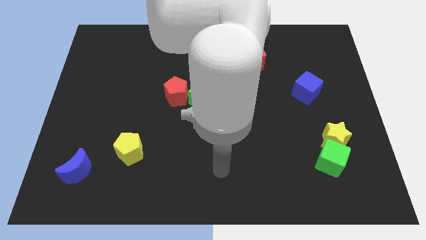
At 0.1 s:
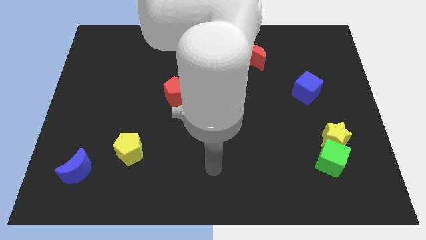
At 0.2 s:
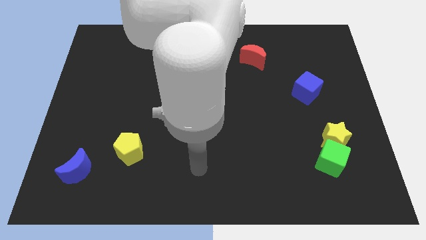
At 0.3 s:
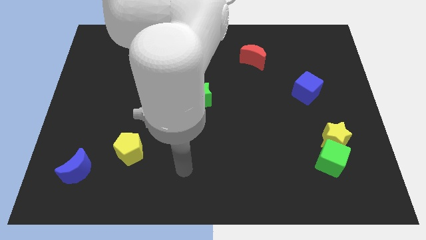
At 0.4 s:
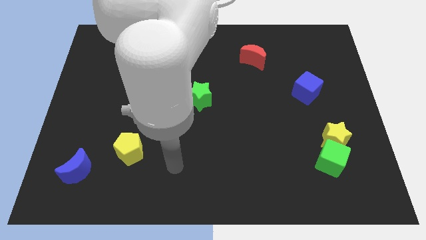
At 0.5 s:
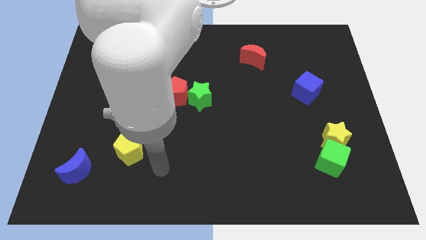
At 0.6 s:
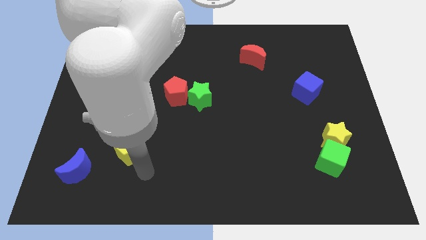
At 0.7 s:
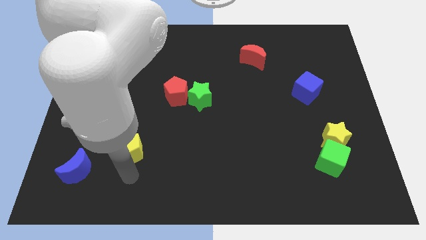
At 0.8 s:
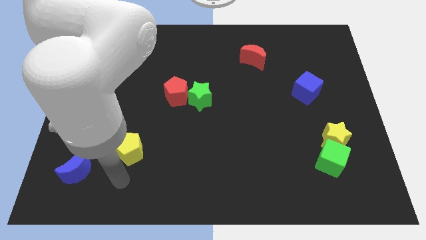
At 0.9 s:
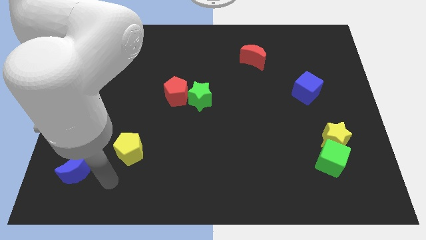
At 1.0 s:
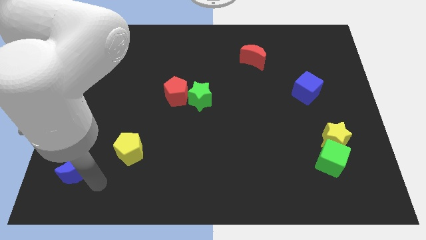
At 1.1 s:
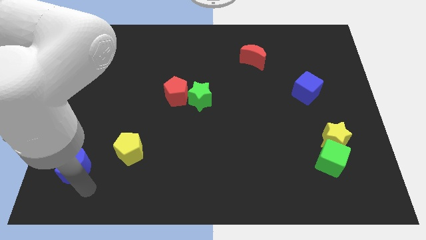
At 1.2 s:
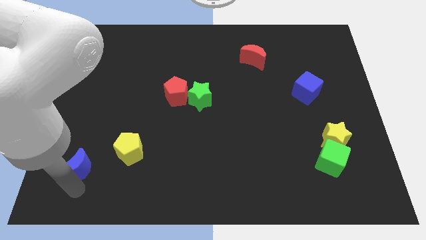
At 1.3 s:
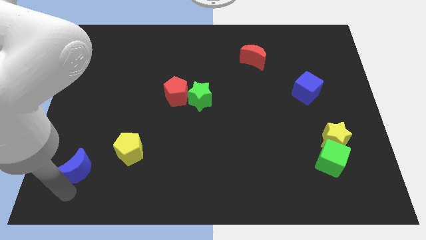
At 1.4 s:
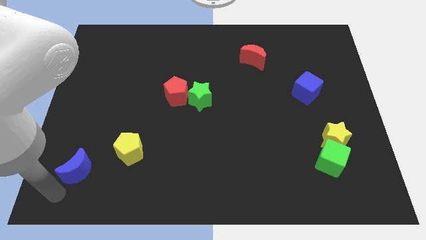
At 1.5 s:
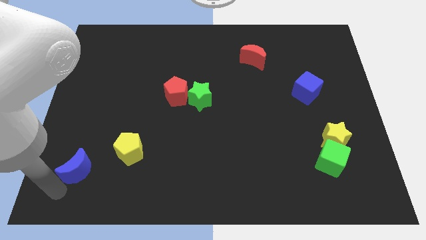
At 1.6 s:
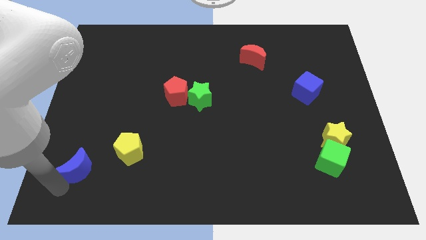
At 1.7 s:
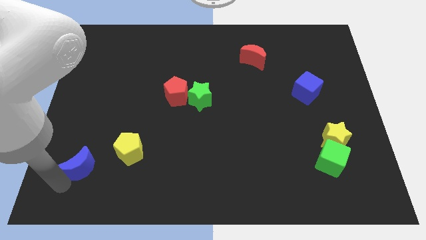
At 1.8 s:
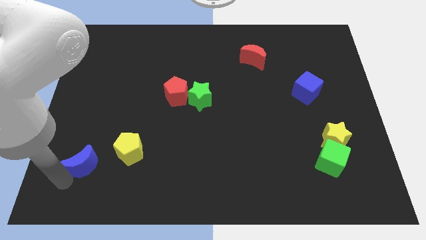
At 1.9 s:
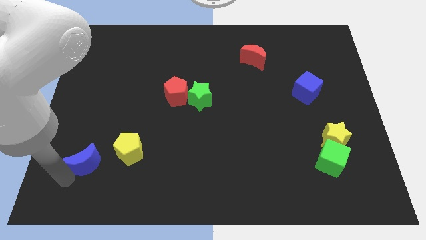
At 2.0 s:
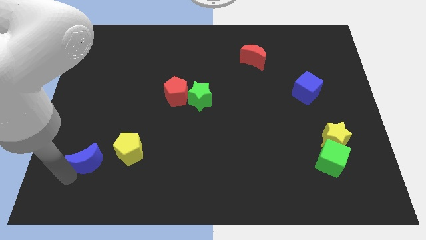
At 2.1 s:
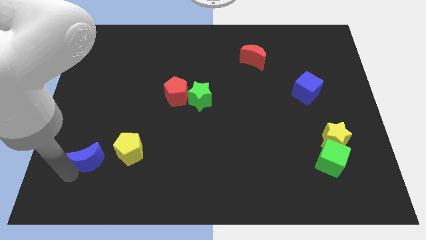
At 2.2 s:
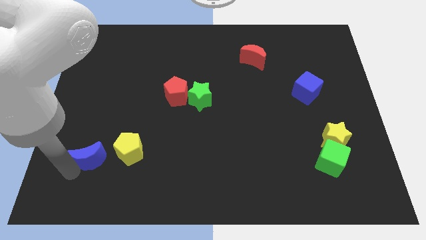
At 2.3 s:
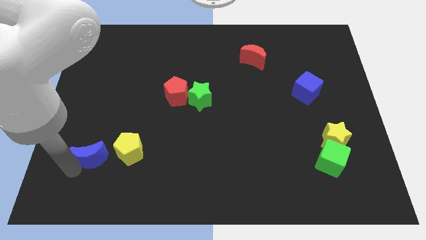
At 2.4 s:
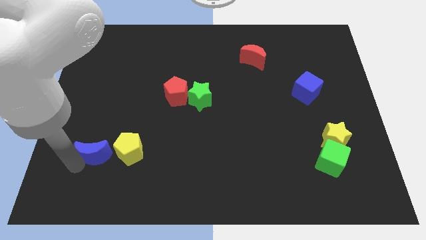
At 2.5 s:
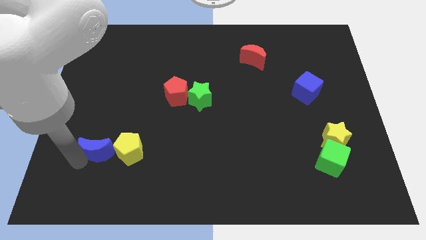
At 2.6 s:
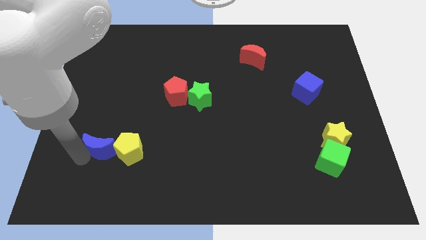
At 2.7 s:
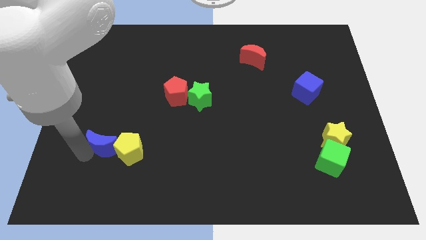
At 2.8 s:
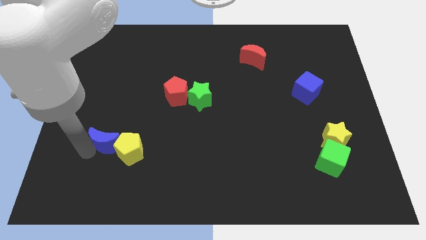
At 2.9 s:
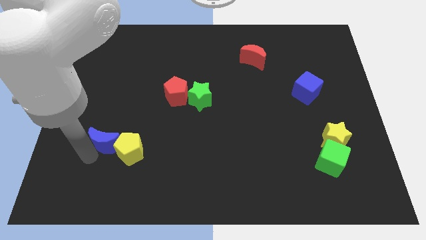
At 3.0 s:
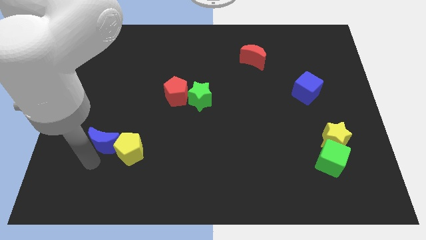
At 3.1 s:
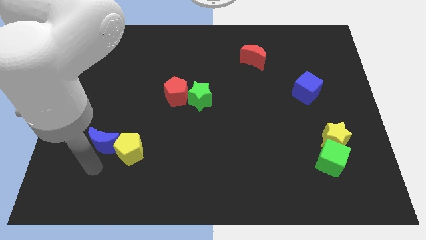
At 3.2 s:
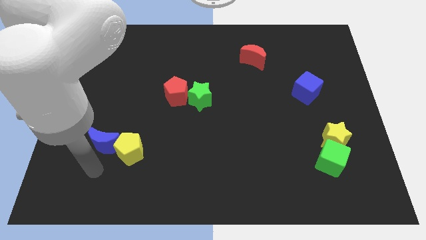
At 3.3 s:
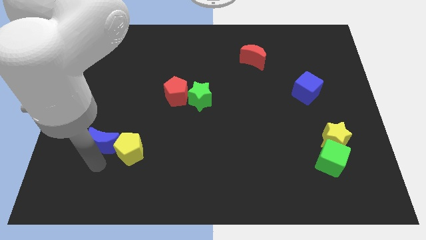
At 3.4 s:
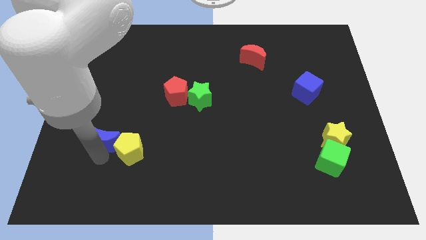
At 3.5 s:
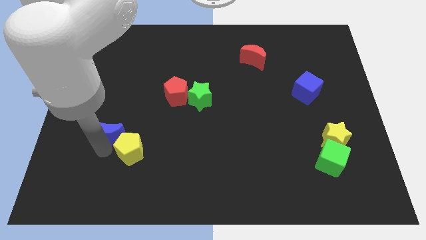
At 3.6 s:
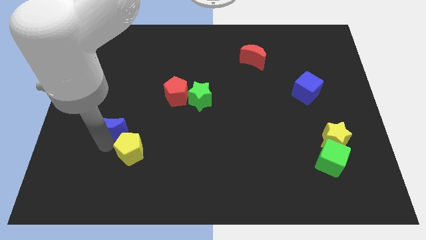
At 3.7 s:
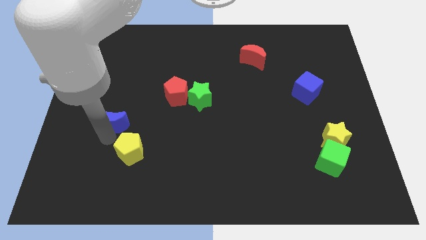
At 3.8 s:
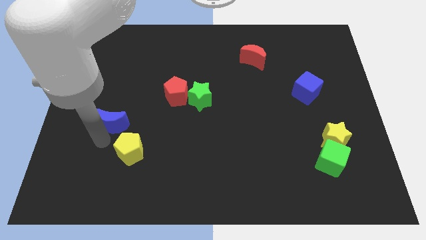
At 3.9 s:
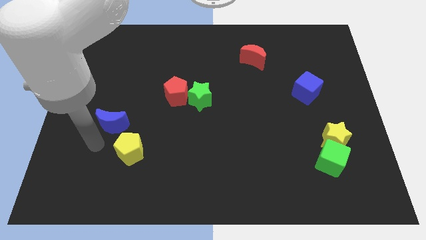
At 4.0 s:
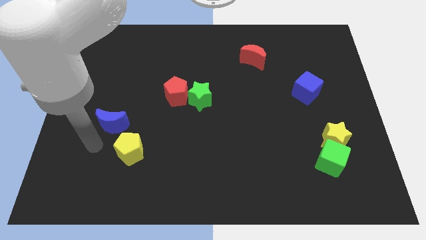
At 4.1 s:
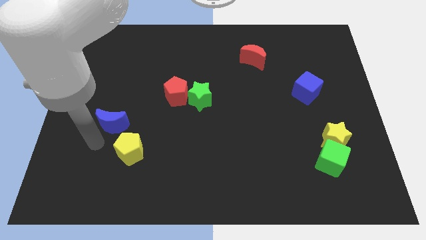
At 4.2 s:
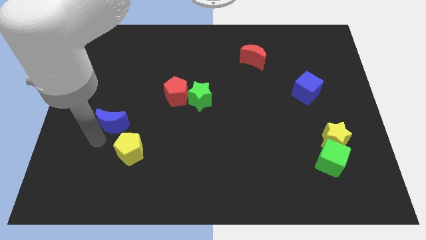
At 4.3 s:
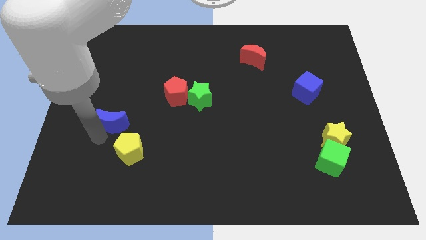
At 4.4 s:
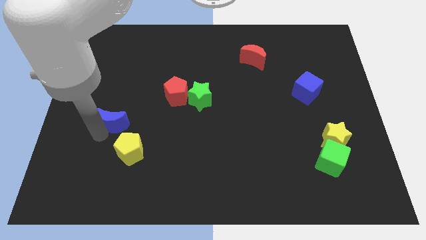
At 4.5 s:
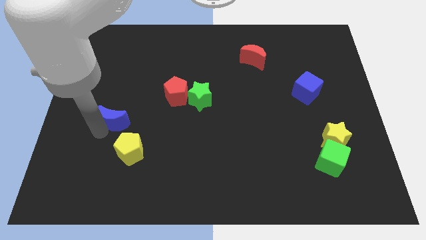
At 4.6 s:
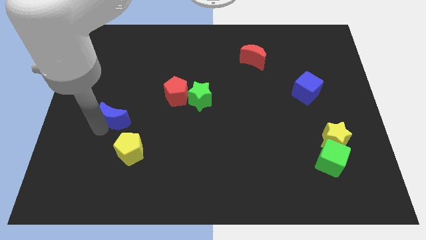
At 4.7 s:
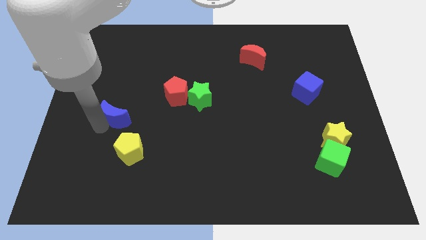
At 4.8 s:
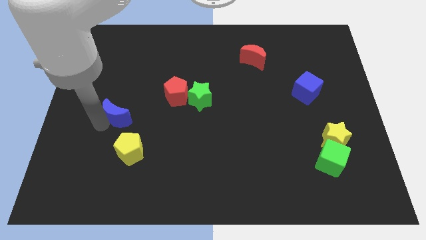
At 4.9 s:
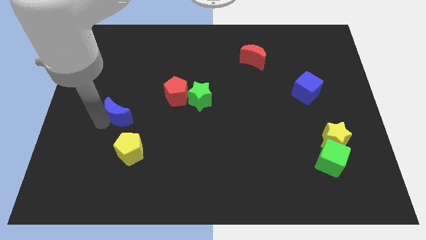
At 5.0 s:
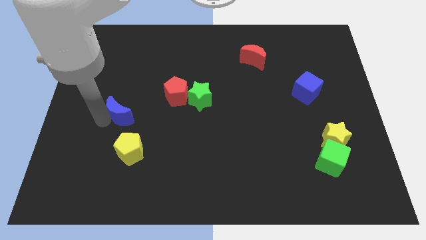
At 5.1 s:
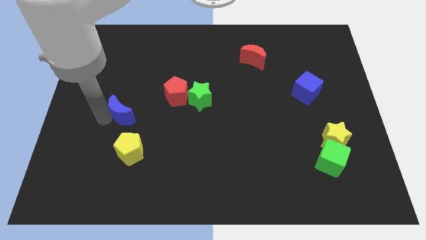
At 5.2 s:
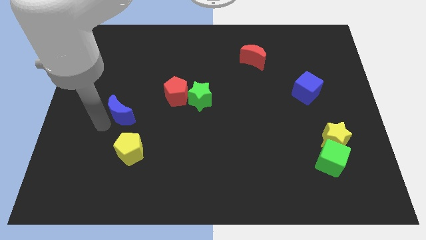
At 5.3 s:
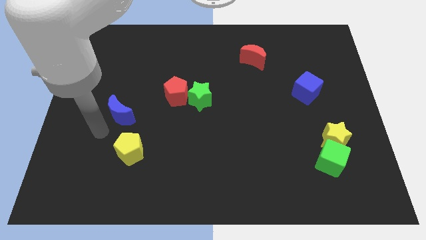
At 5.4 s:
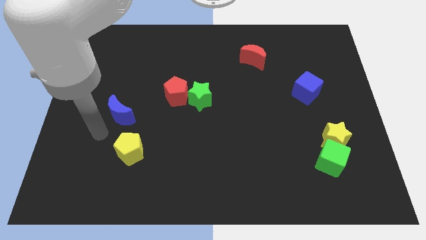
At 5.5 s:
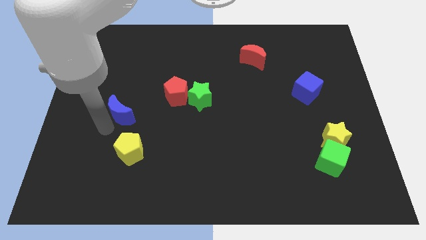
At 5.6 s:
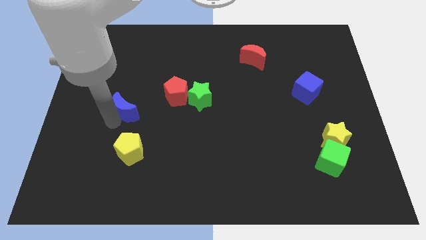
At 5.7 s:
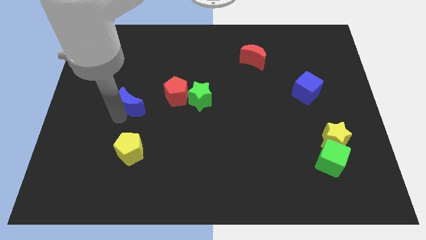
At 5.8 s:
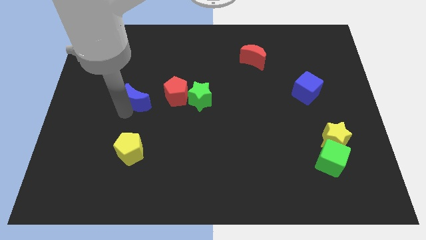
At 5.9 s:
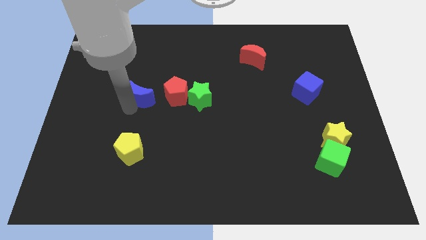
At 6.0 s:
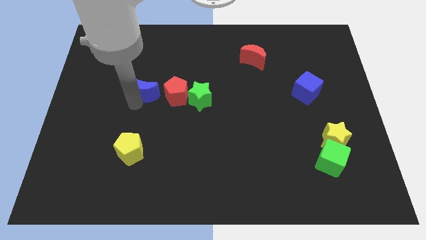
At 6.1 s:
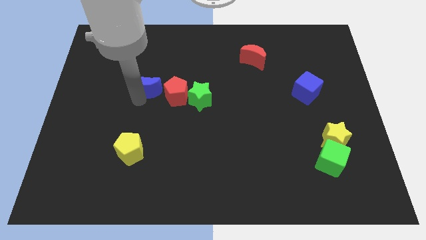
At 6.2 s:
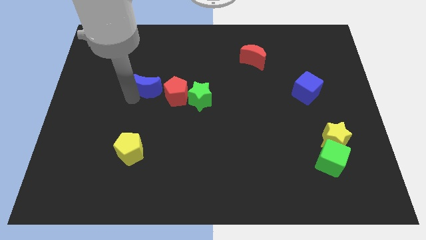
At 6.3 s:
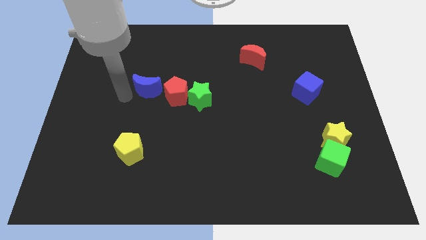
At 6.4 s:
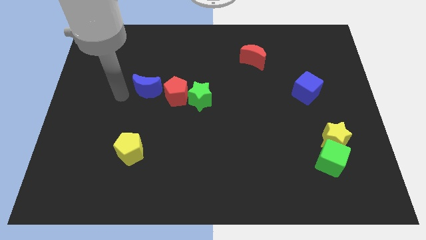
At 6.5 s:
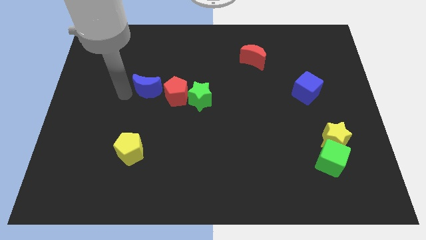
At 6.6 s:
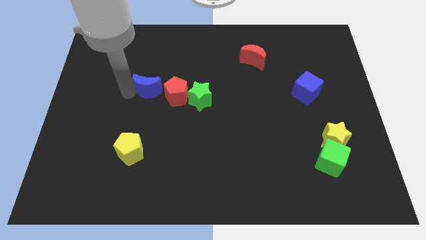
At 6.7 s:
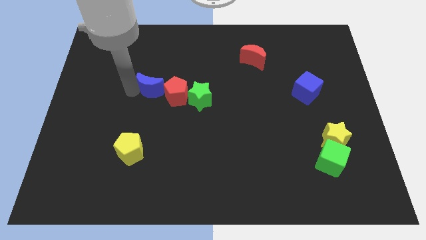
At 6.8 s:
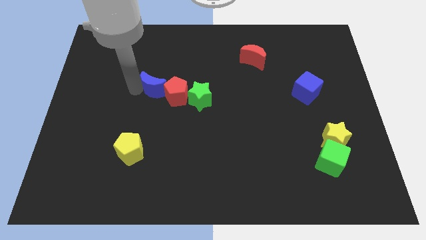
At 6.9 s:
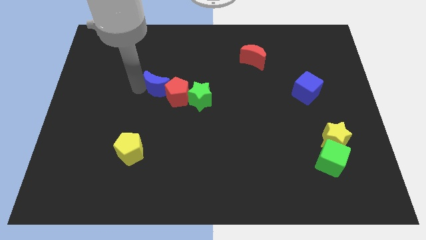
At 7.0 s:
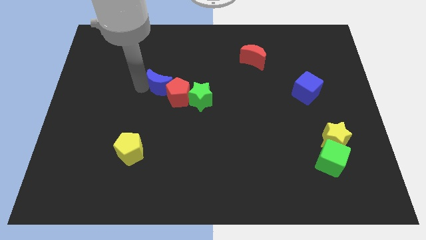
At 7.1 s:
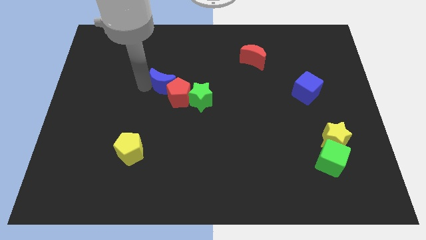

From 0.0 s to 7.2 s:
push the blue moon to the top left side of the green star

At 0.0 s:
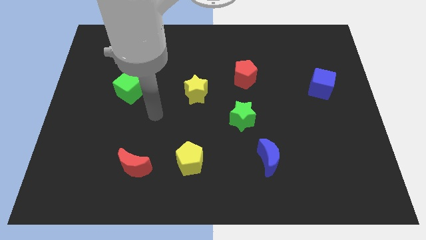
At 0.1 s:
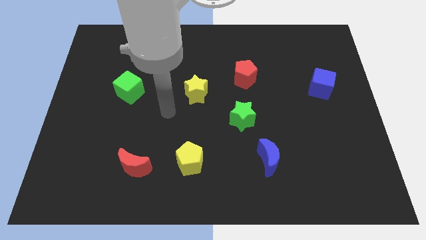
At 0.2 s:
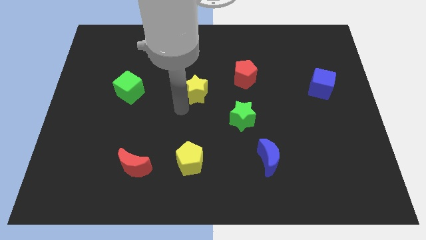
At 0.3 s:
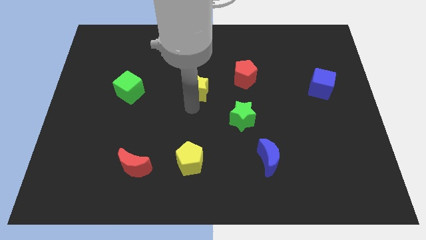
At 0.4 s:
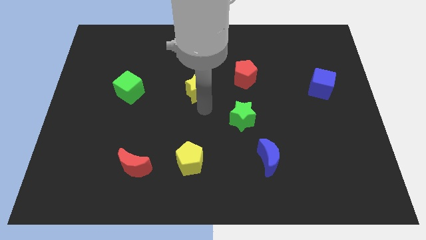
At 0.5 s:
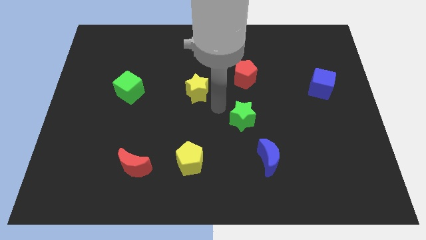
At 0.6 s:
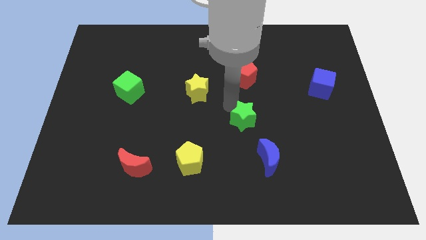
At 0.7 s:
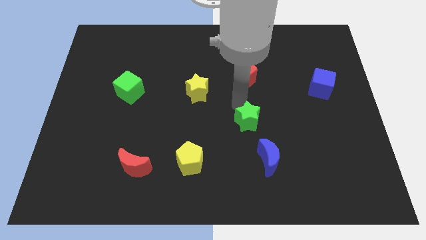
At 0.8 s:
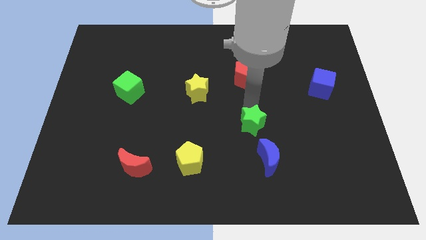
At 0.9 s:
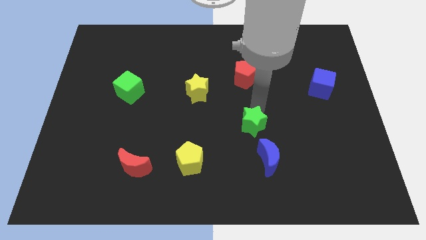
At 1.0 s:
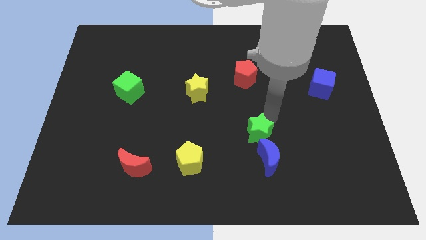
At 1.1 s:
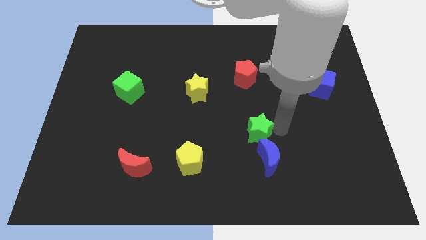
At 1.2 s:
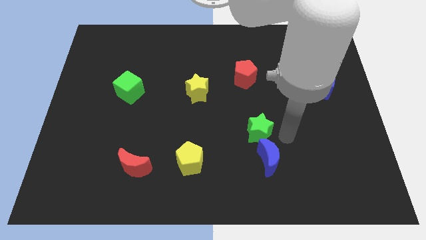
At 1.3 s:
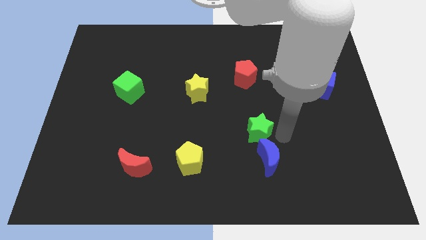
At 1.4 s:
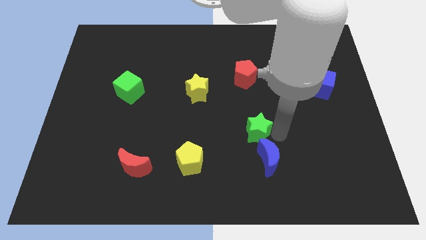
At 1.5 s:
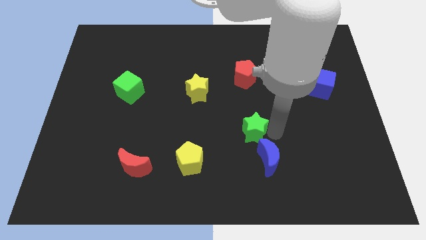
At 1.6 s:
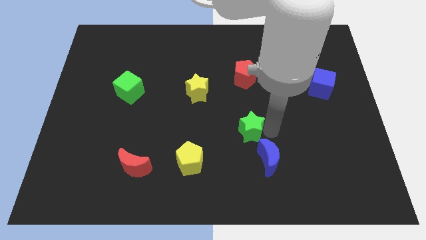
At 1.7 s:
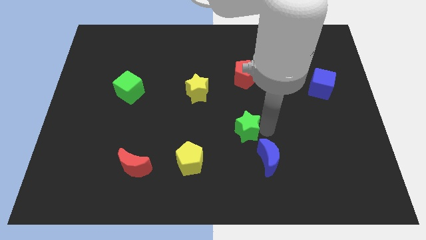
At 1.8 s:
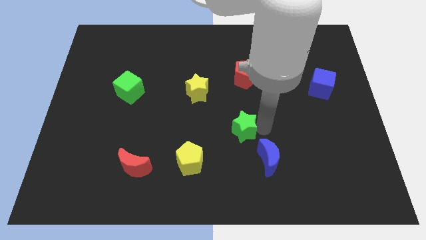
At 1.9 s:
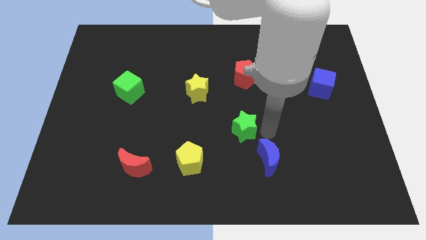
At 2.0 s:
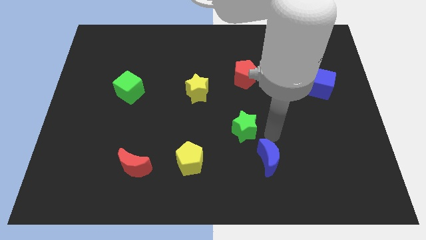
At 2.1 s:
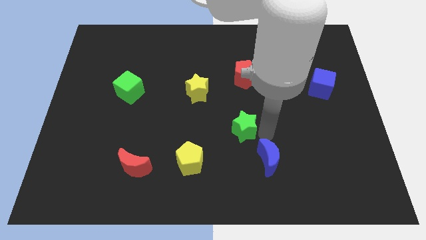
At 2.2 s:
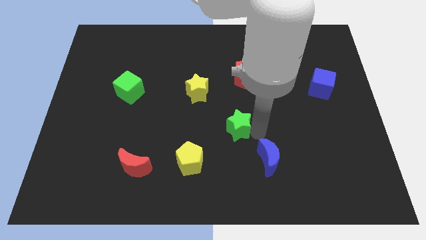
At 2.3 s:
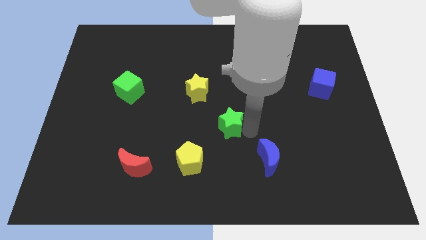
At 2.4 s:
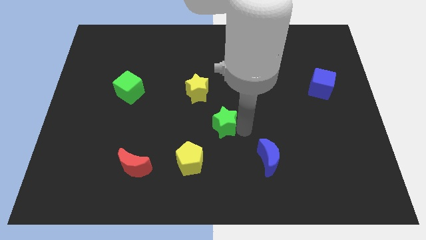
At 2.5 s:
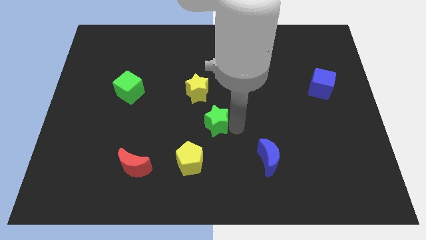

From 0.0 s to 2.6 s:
push the green star to the bottom side of the yellow star
